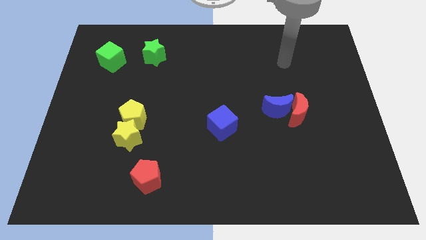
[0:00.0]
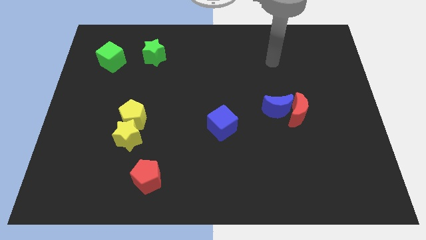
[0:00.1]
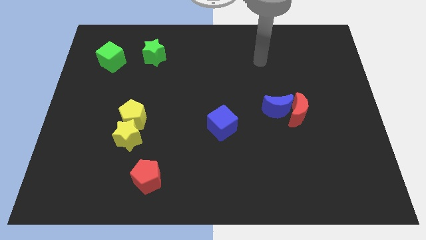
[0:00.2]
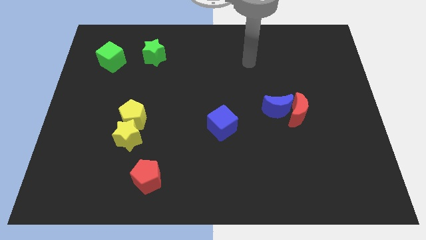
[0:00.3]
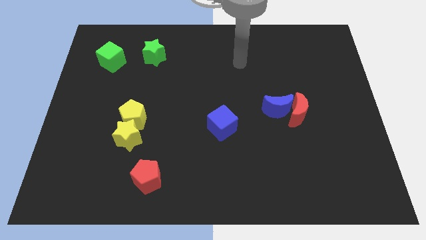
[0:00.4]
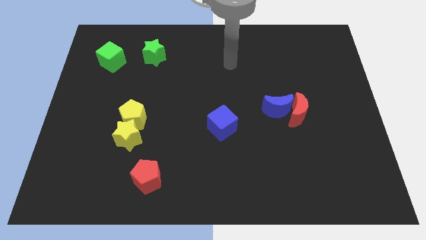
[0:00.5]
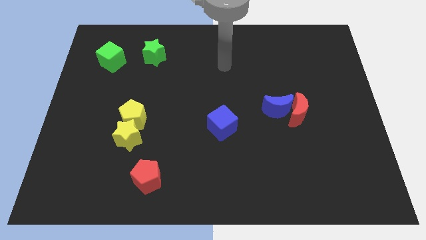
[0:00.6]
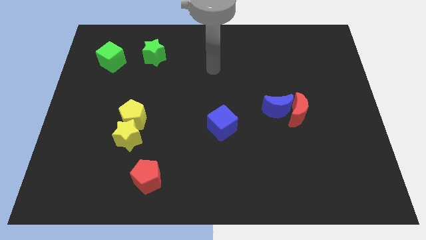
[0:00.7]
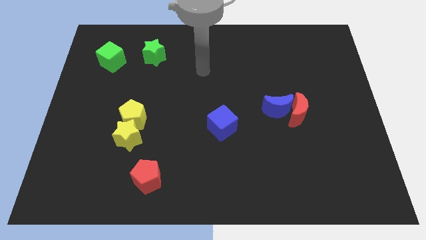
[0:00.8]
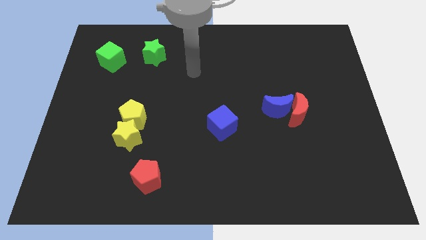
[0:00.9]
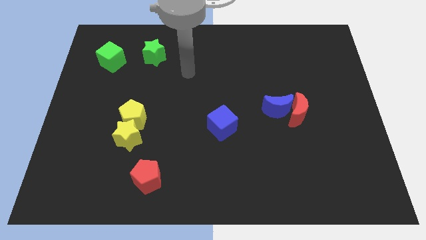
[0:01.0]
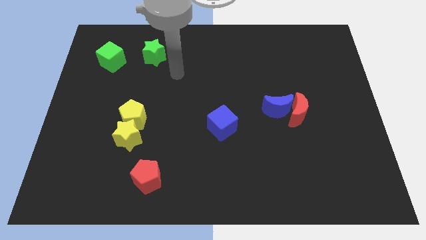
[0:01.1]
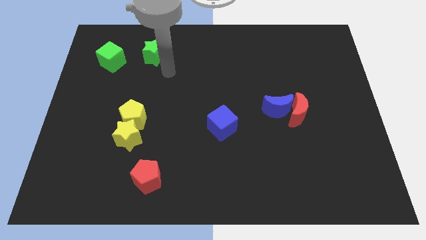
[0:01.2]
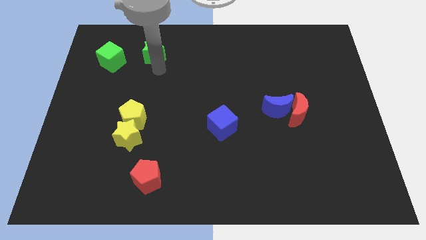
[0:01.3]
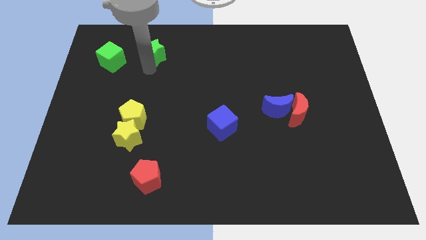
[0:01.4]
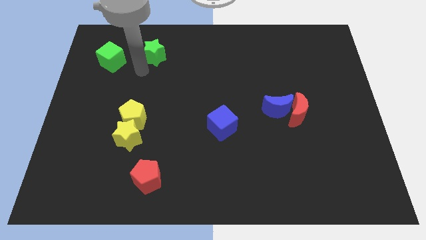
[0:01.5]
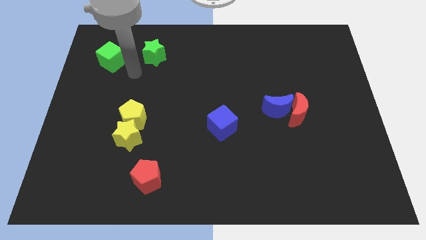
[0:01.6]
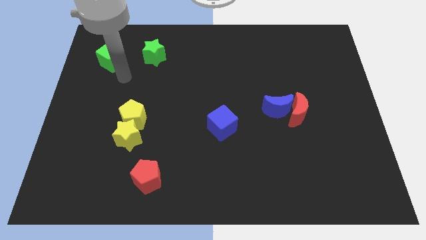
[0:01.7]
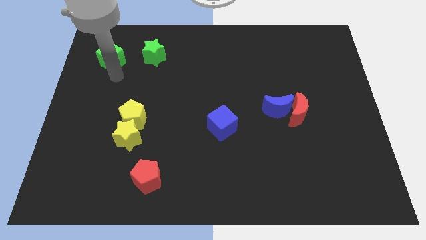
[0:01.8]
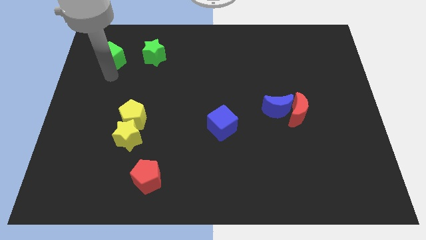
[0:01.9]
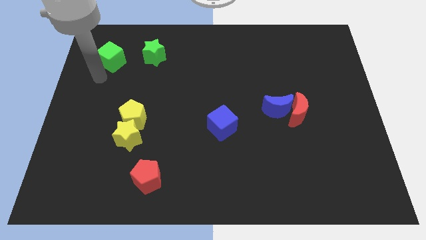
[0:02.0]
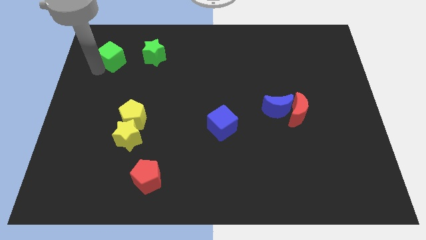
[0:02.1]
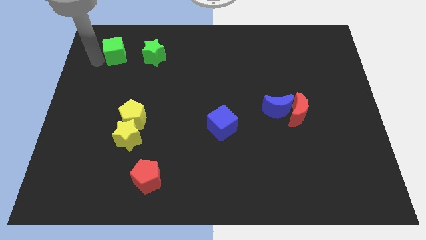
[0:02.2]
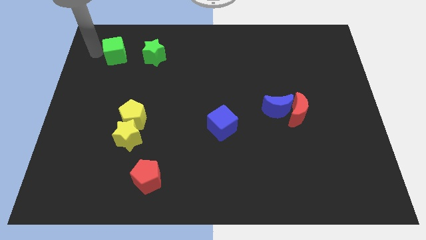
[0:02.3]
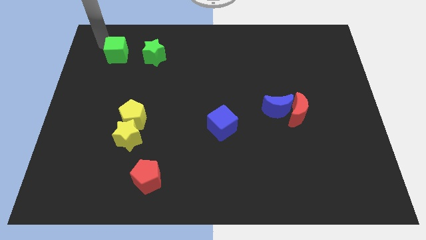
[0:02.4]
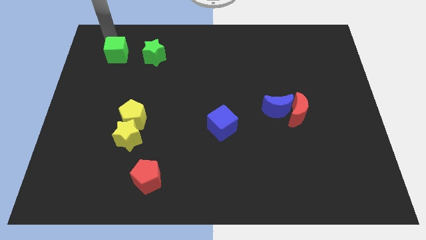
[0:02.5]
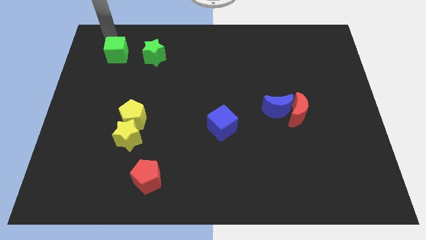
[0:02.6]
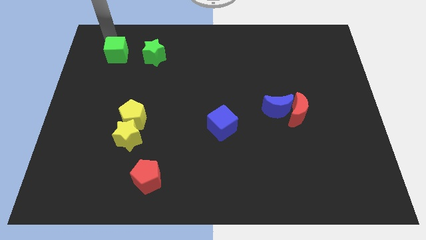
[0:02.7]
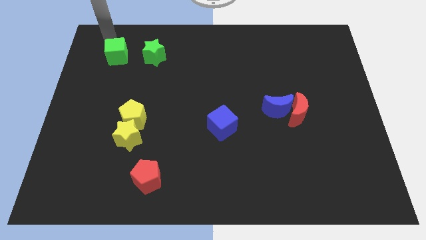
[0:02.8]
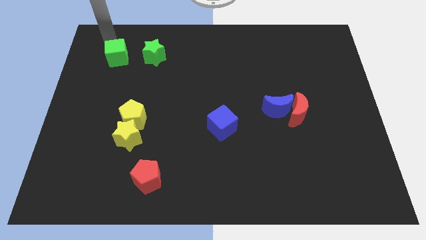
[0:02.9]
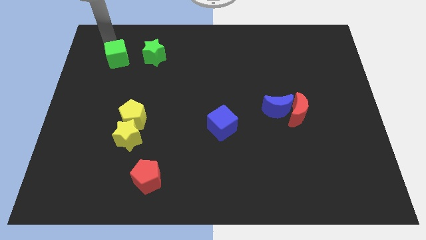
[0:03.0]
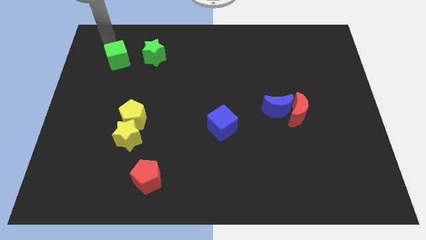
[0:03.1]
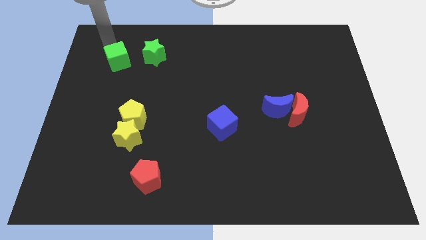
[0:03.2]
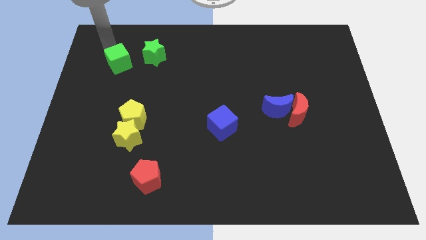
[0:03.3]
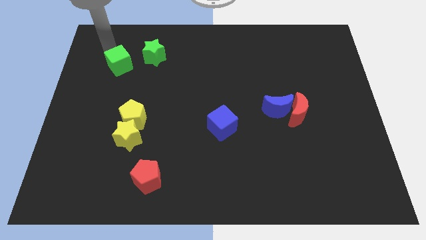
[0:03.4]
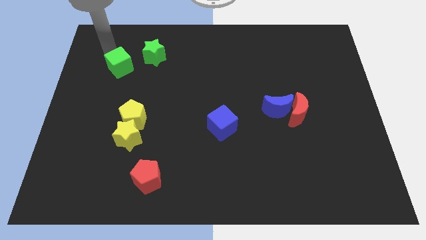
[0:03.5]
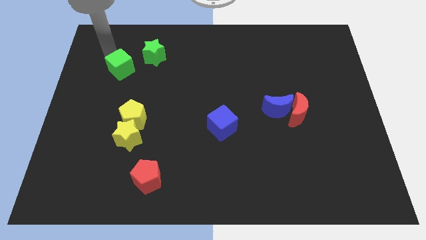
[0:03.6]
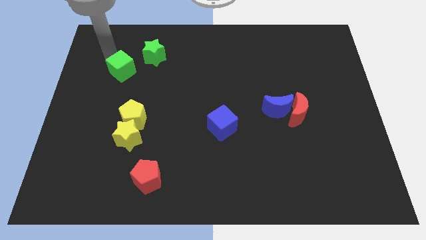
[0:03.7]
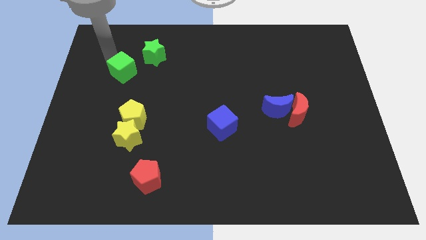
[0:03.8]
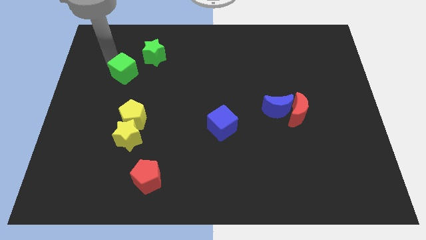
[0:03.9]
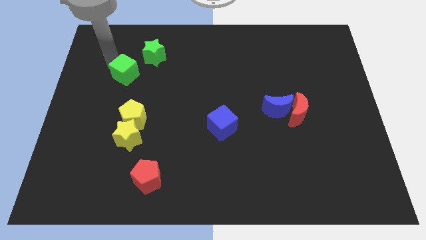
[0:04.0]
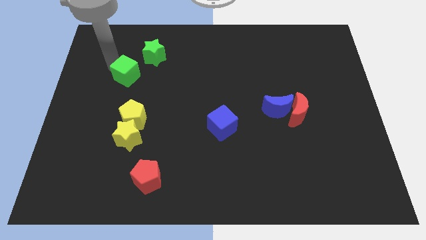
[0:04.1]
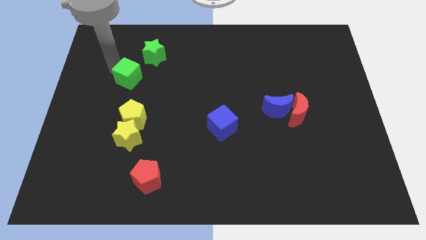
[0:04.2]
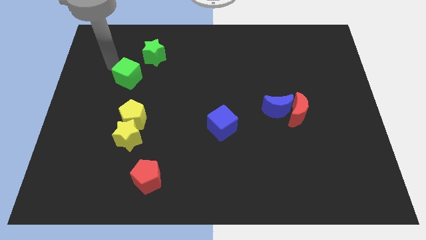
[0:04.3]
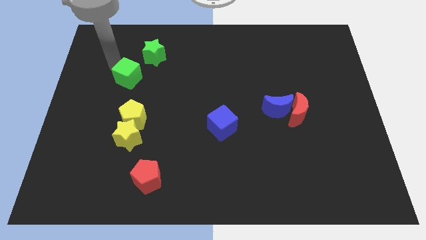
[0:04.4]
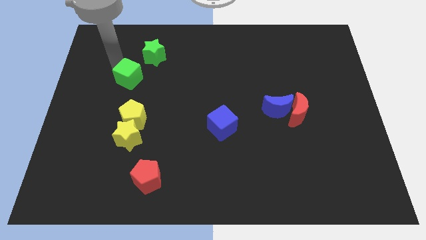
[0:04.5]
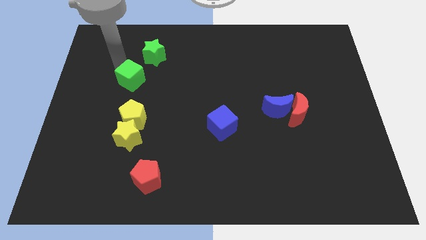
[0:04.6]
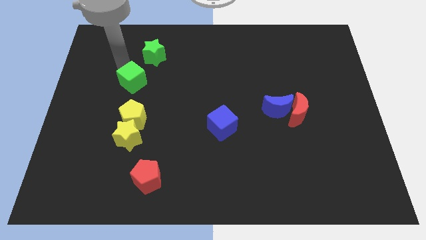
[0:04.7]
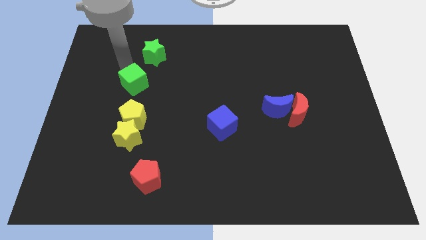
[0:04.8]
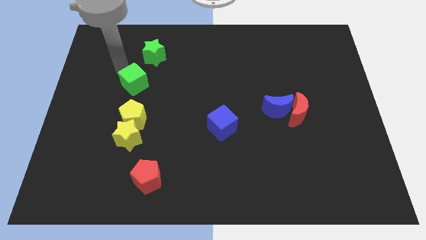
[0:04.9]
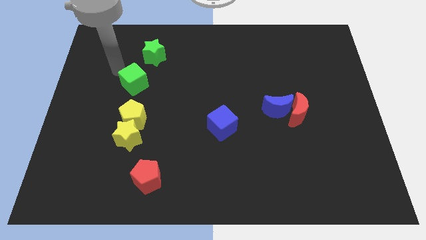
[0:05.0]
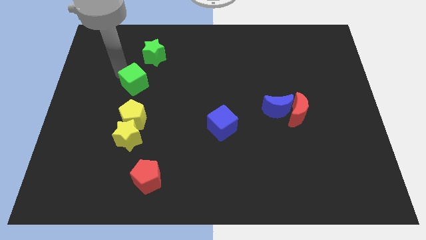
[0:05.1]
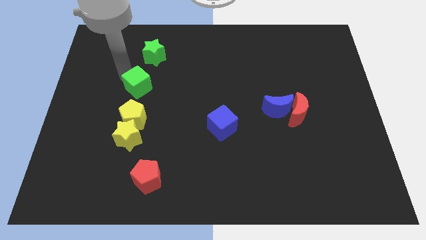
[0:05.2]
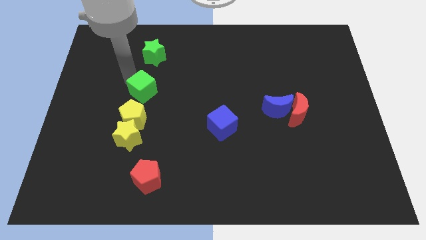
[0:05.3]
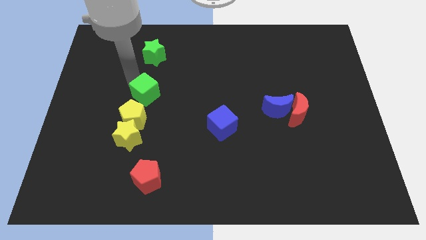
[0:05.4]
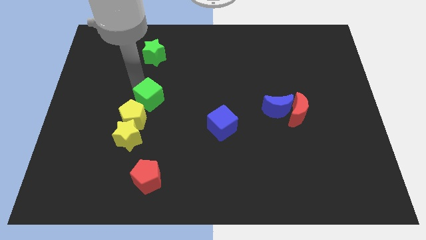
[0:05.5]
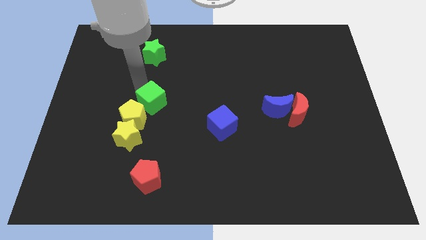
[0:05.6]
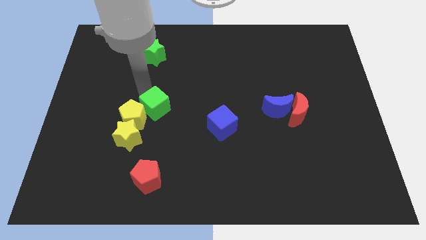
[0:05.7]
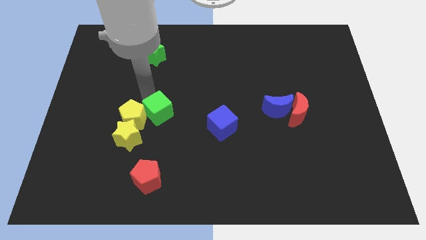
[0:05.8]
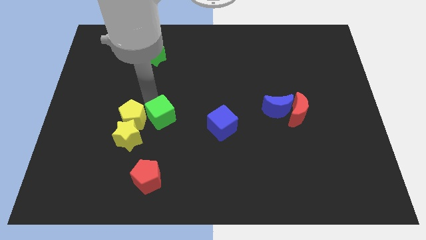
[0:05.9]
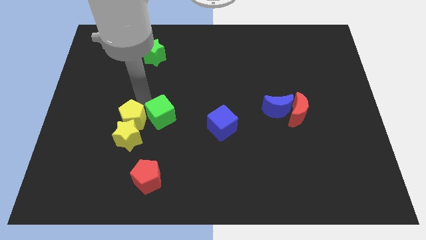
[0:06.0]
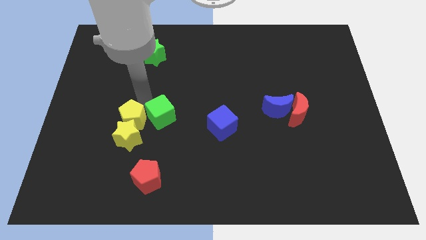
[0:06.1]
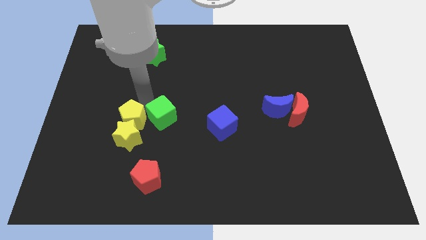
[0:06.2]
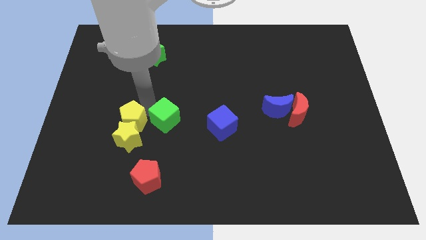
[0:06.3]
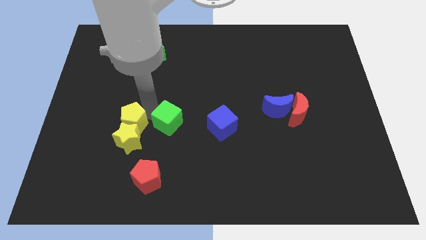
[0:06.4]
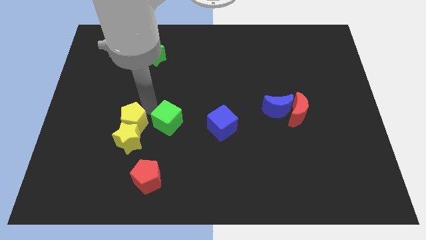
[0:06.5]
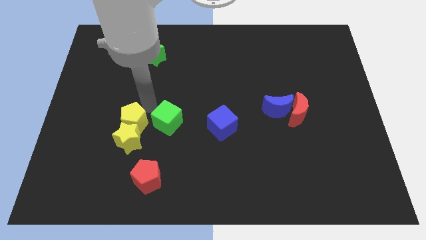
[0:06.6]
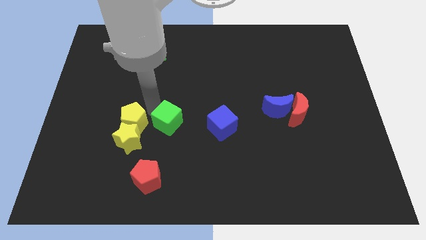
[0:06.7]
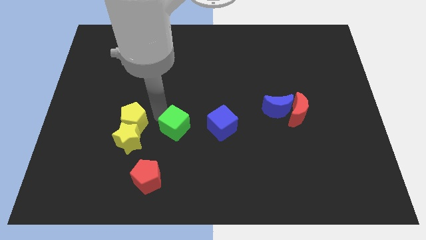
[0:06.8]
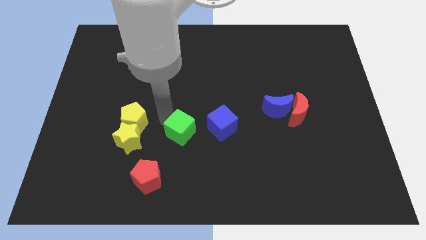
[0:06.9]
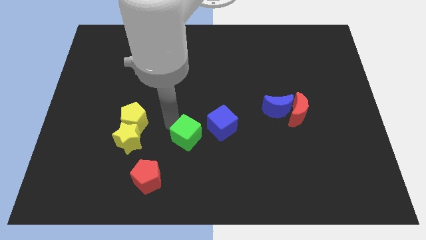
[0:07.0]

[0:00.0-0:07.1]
put the green cube diagonally down and to the left of the blue cube

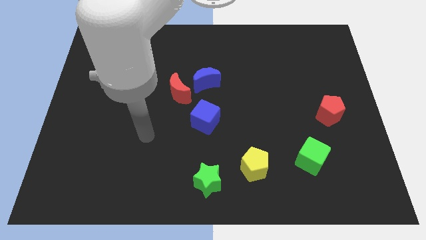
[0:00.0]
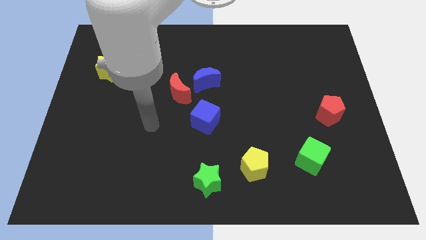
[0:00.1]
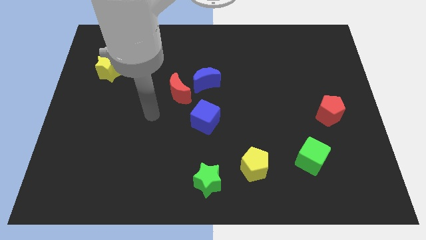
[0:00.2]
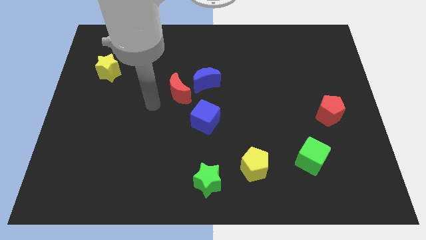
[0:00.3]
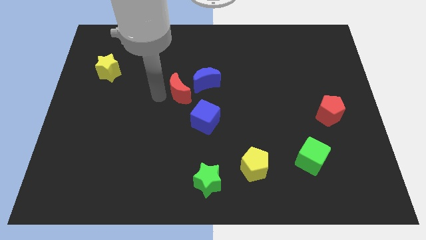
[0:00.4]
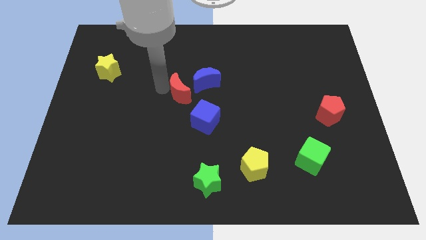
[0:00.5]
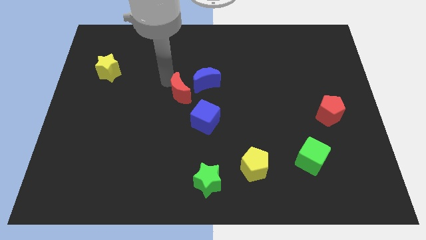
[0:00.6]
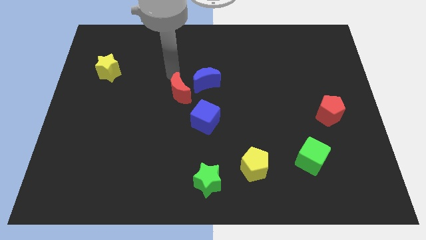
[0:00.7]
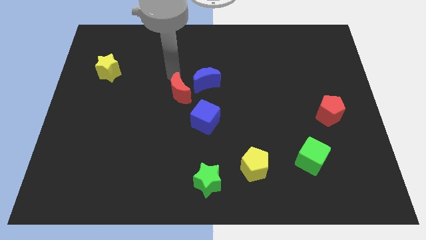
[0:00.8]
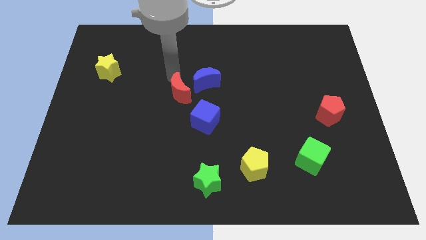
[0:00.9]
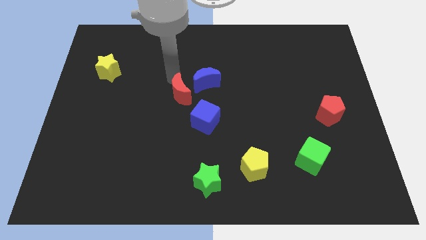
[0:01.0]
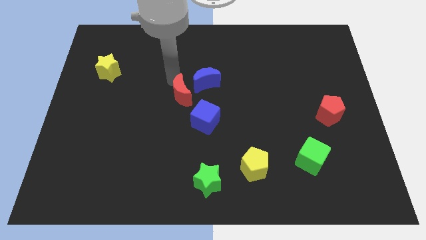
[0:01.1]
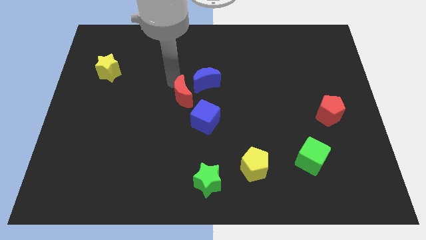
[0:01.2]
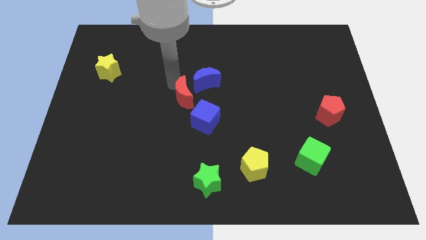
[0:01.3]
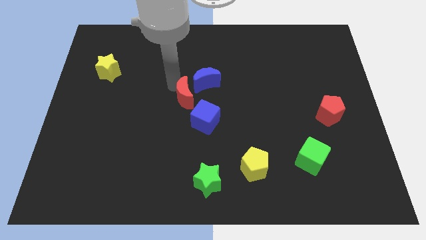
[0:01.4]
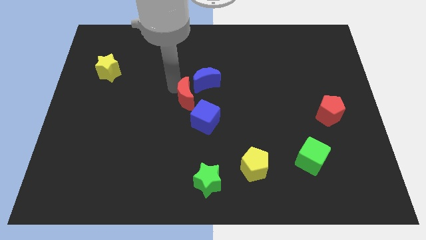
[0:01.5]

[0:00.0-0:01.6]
slide the red moon below the blue moon
